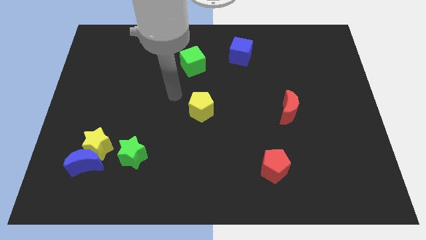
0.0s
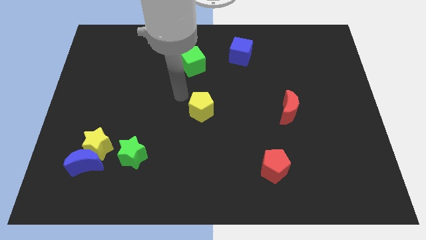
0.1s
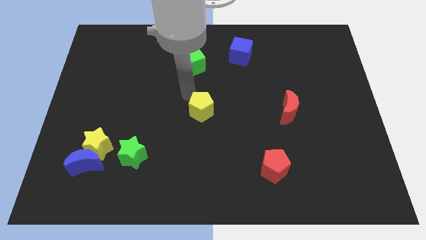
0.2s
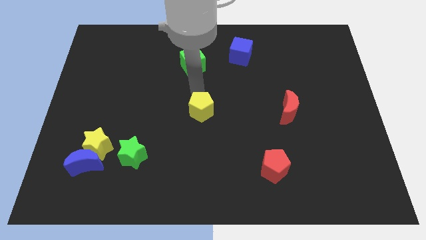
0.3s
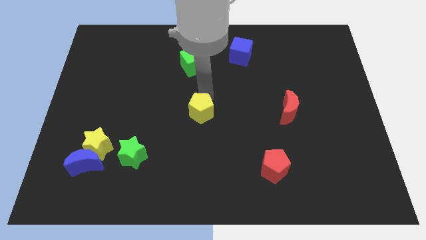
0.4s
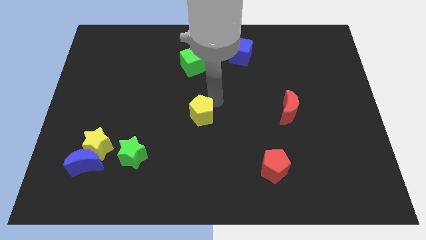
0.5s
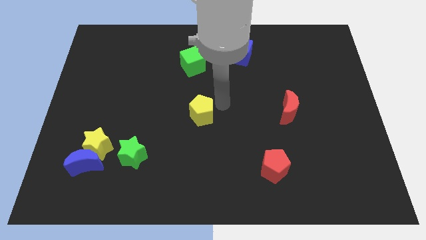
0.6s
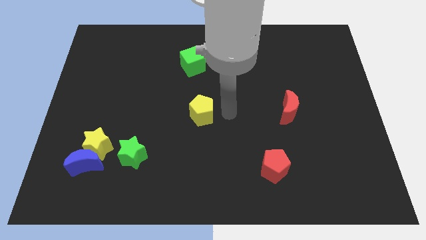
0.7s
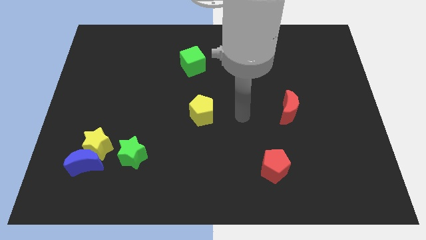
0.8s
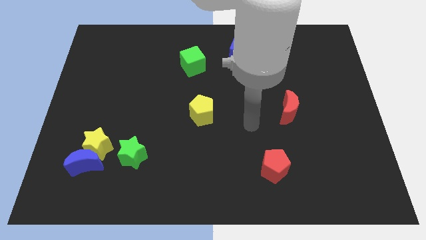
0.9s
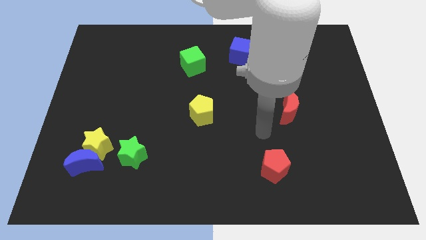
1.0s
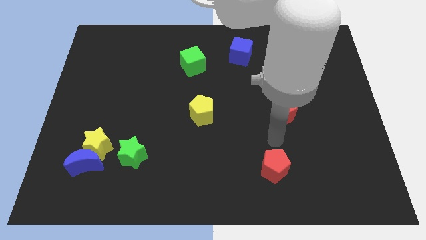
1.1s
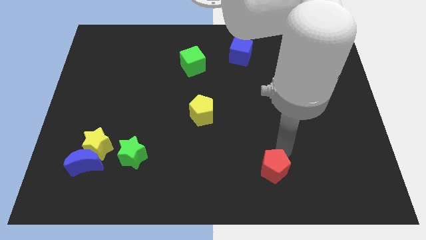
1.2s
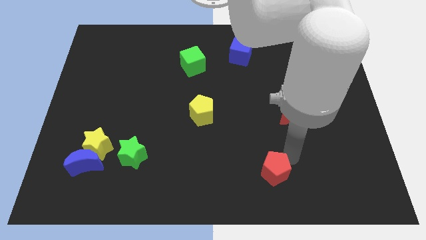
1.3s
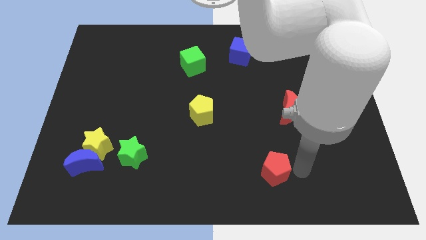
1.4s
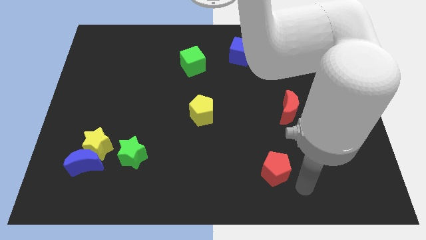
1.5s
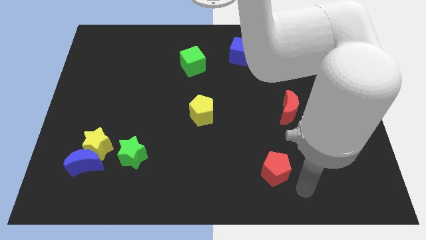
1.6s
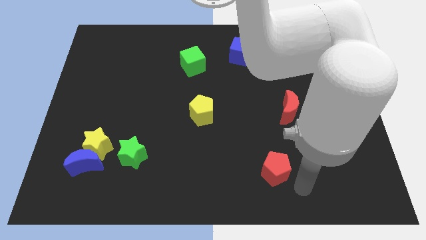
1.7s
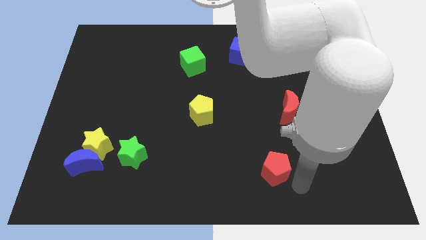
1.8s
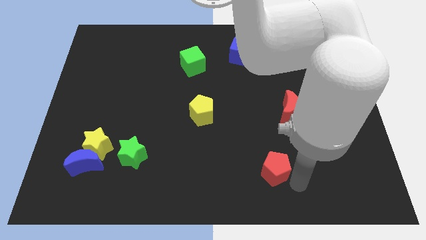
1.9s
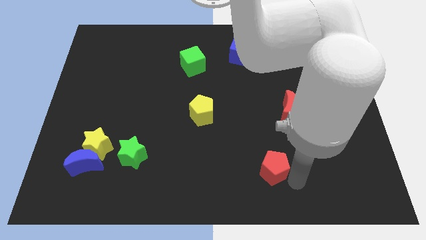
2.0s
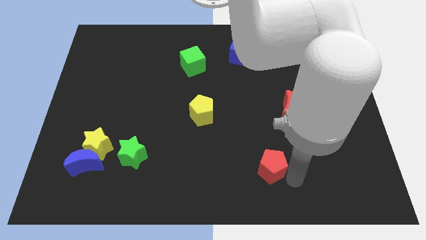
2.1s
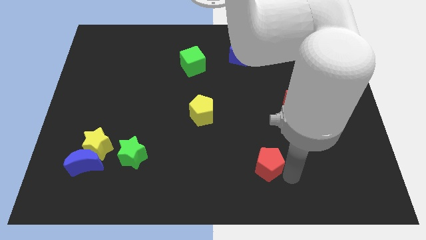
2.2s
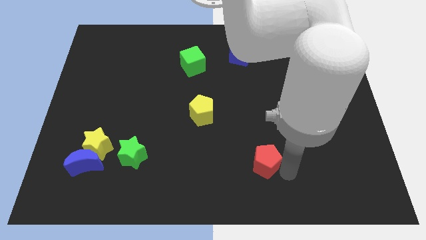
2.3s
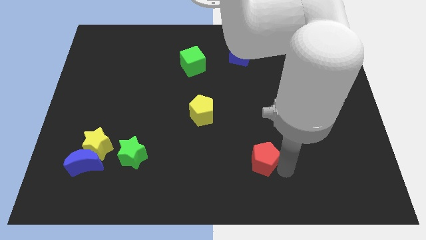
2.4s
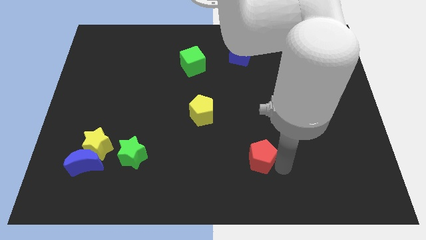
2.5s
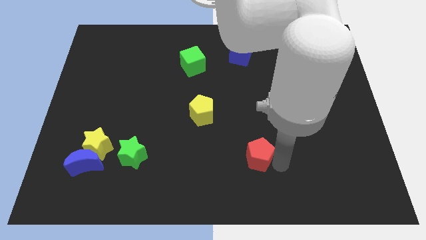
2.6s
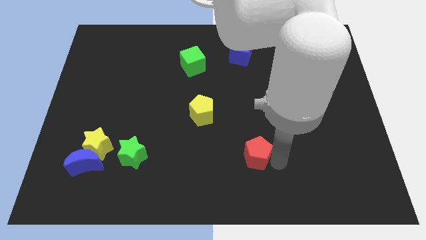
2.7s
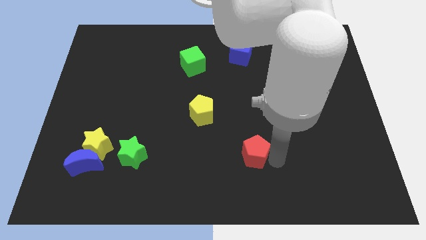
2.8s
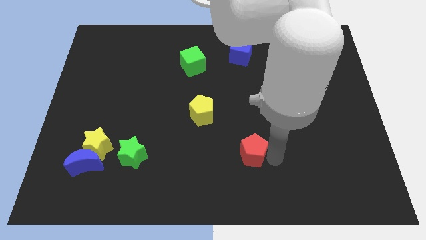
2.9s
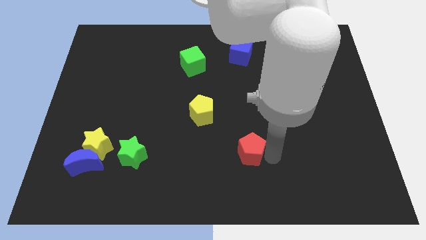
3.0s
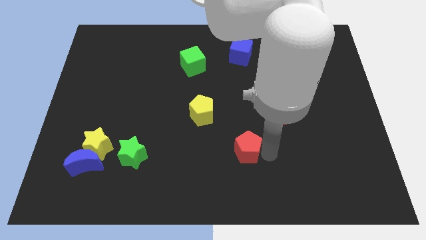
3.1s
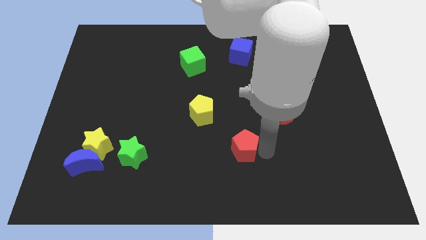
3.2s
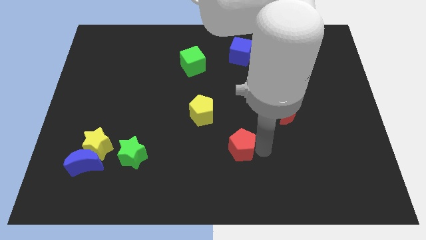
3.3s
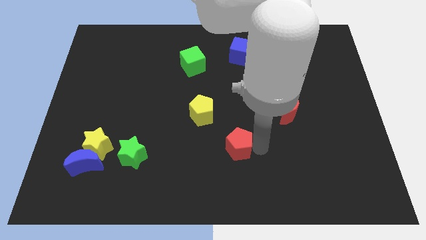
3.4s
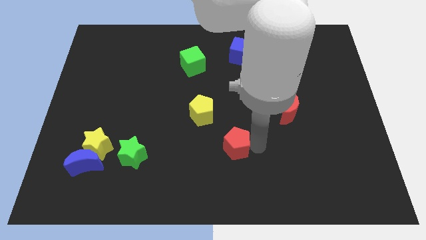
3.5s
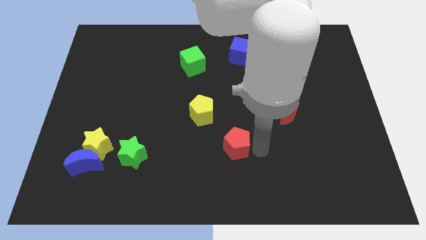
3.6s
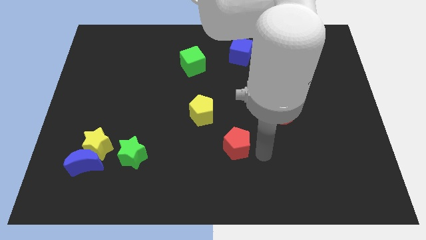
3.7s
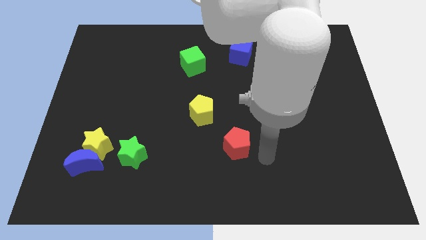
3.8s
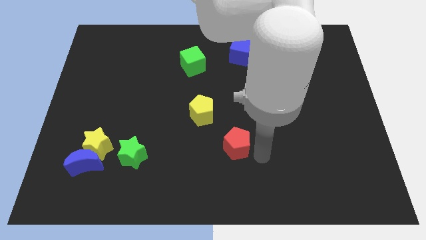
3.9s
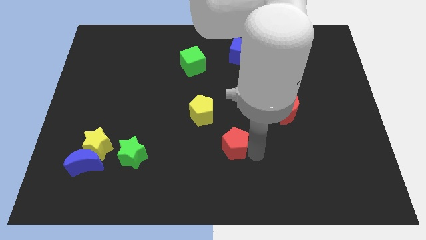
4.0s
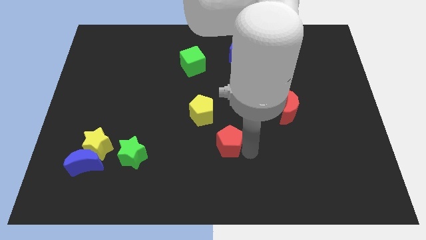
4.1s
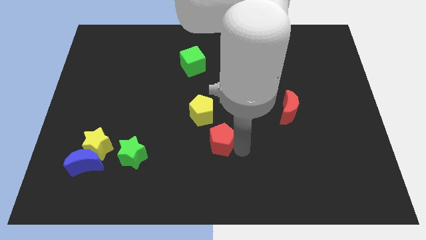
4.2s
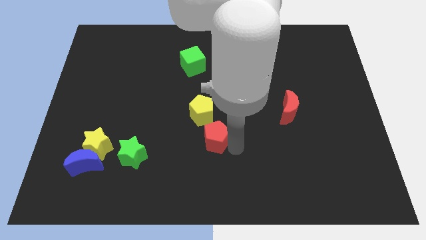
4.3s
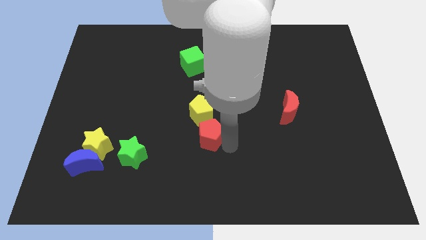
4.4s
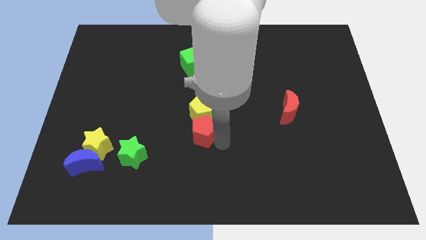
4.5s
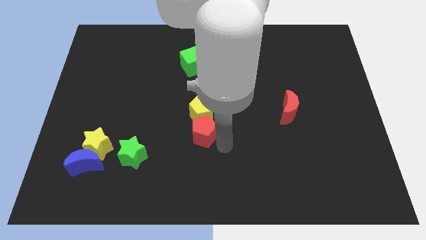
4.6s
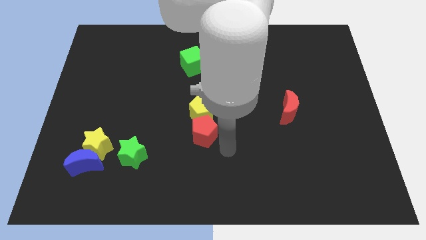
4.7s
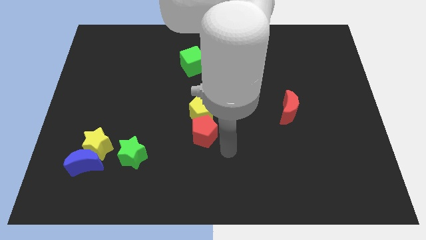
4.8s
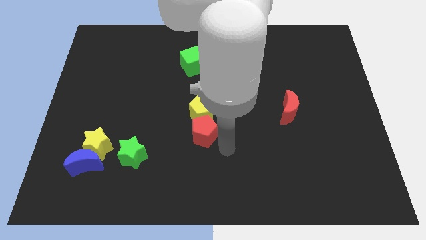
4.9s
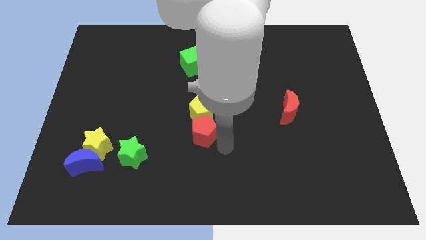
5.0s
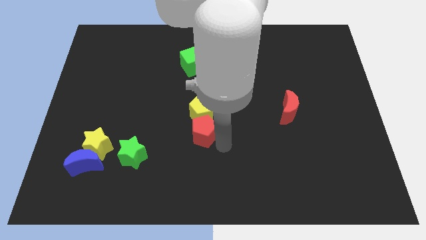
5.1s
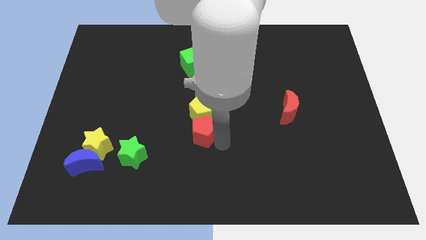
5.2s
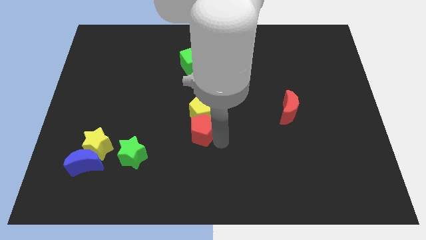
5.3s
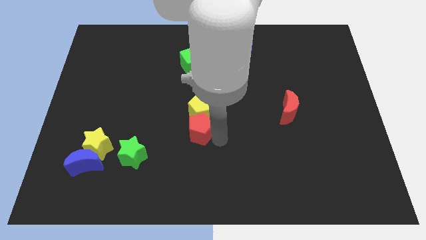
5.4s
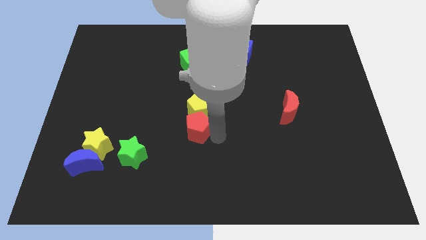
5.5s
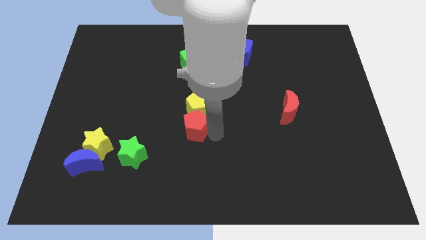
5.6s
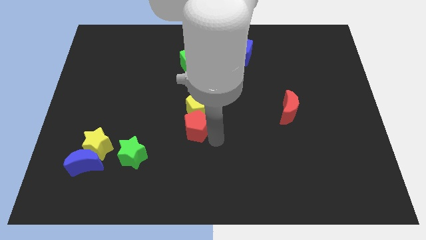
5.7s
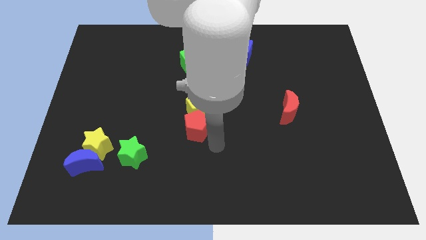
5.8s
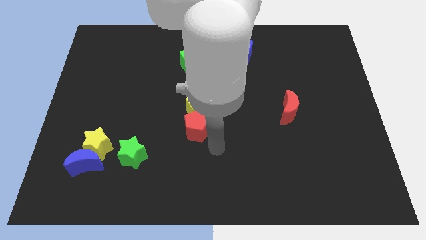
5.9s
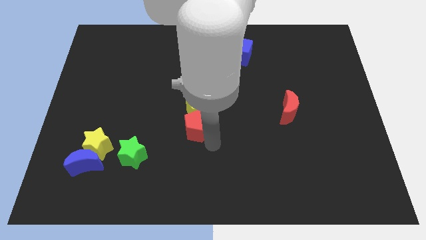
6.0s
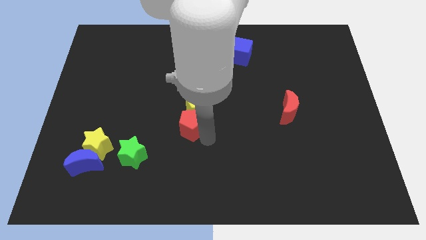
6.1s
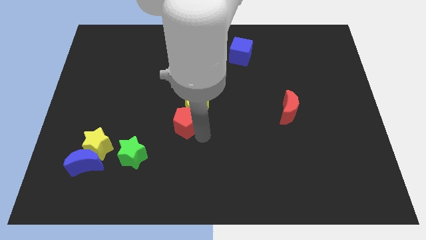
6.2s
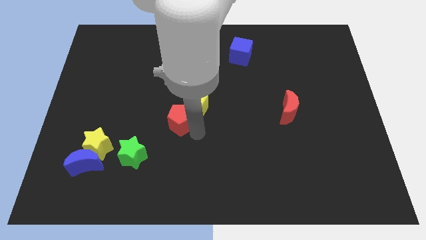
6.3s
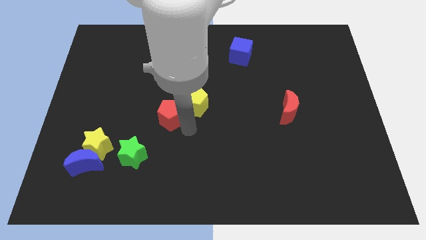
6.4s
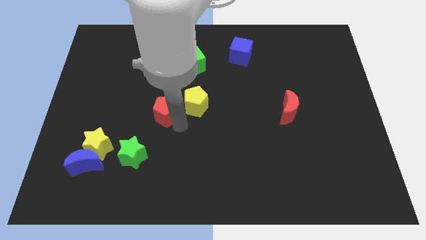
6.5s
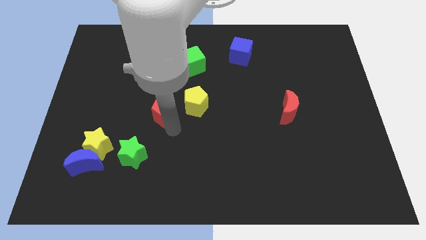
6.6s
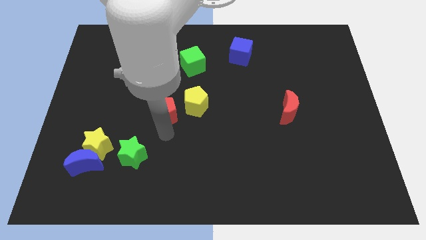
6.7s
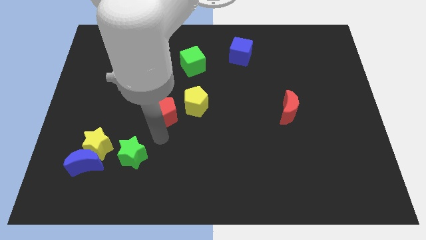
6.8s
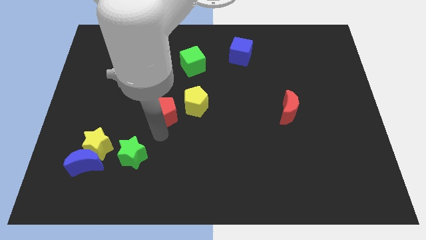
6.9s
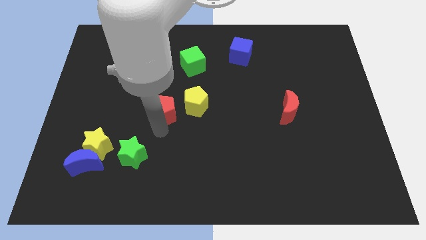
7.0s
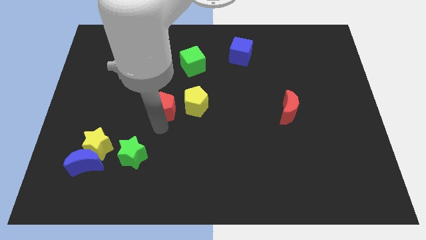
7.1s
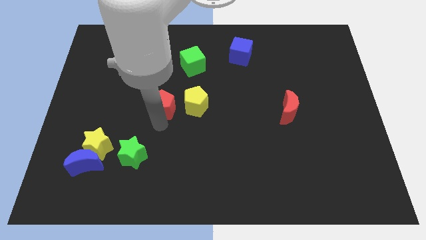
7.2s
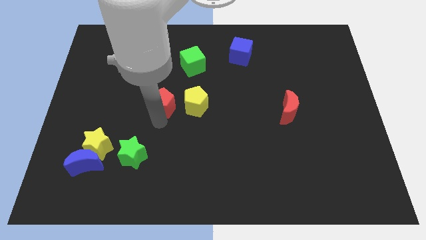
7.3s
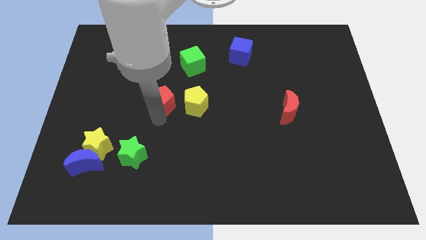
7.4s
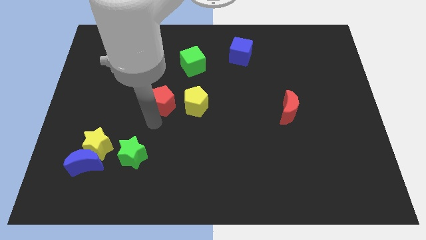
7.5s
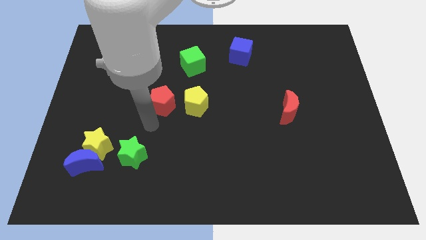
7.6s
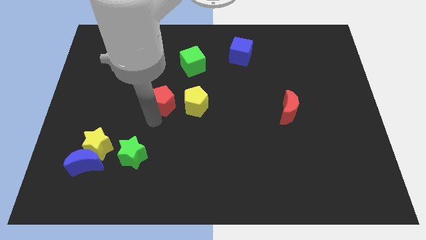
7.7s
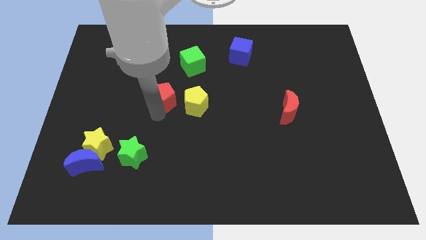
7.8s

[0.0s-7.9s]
move the red pentagon to the top left side of the yellow pentagon
